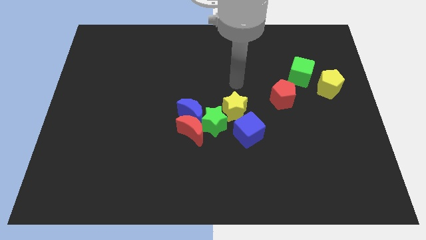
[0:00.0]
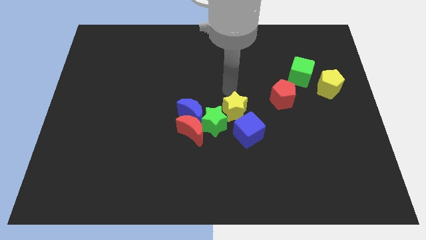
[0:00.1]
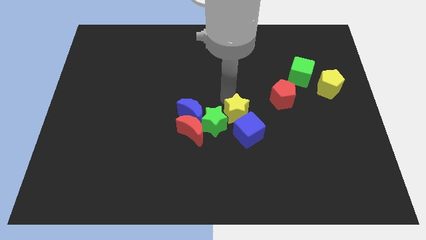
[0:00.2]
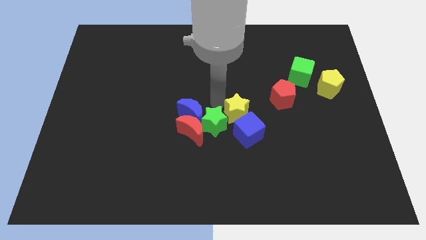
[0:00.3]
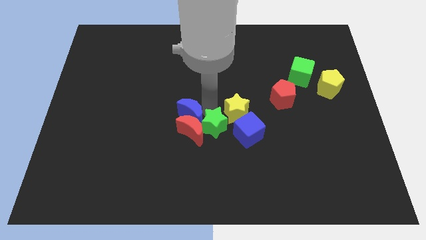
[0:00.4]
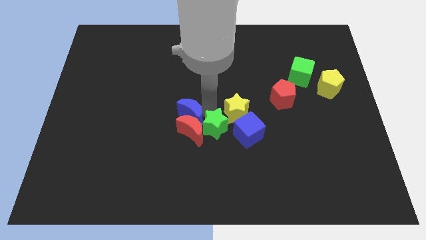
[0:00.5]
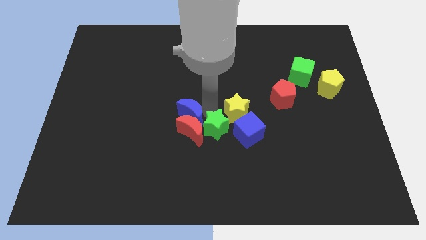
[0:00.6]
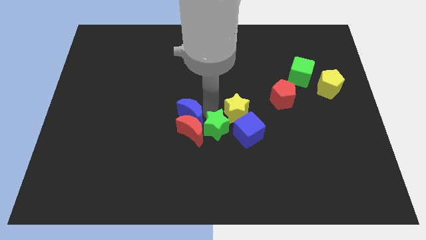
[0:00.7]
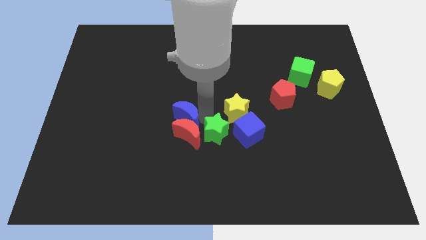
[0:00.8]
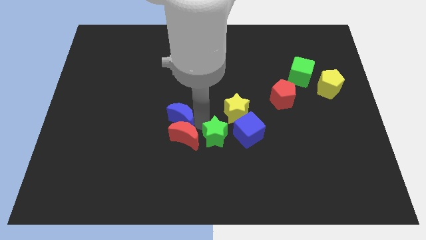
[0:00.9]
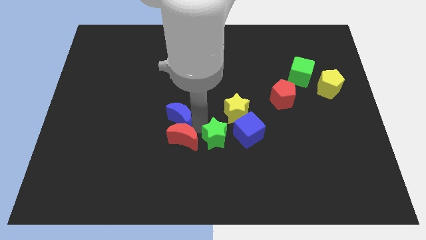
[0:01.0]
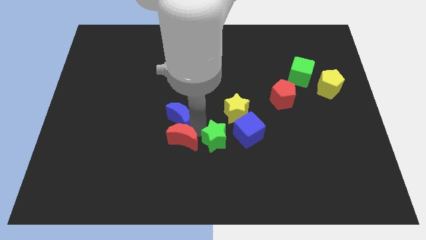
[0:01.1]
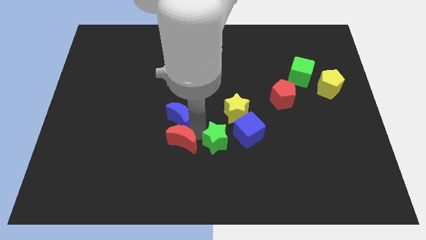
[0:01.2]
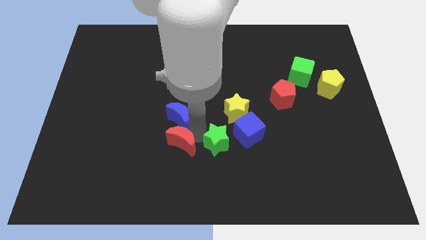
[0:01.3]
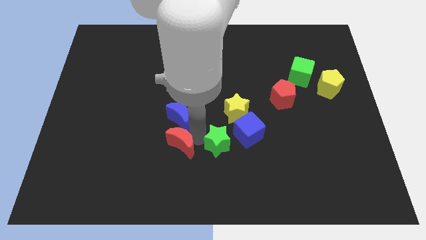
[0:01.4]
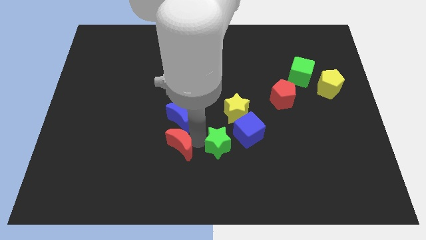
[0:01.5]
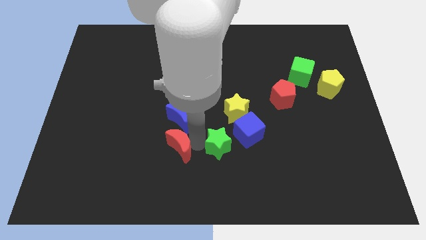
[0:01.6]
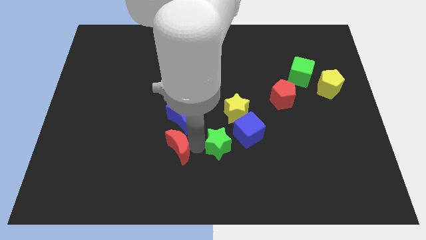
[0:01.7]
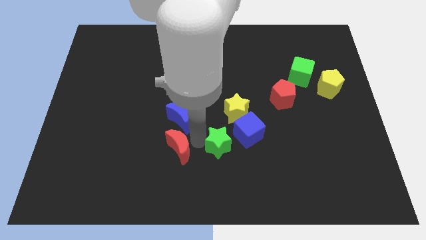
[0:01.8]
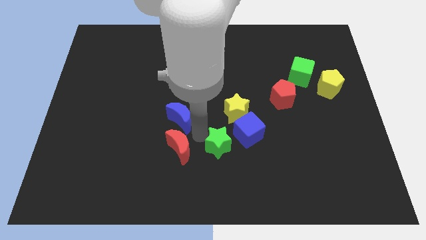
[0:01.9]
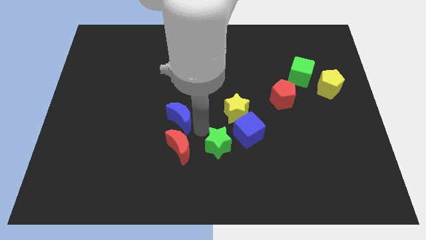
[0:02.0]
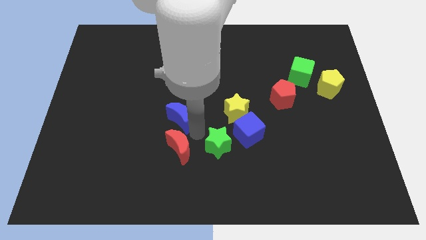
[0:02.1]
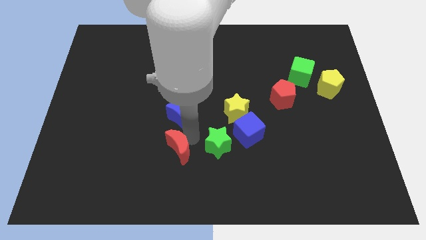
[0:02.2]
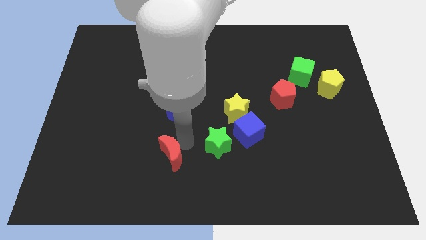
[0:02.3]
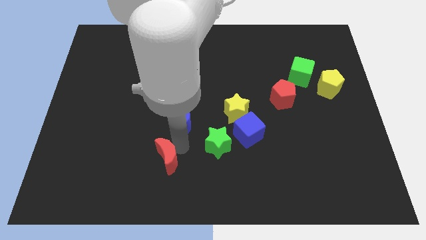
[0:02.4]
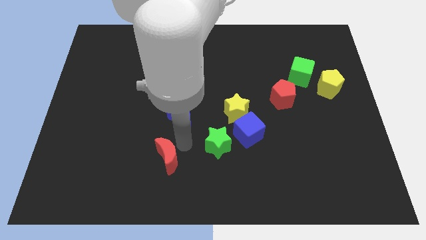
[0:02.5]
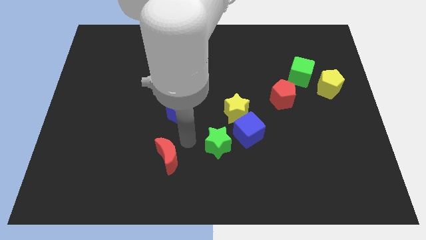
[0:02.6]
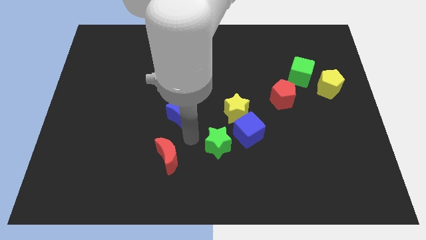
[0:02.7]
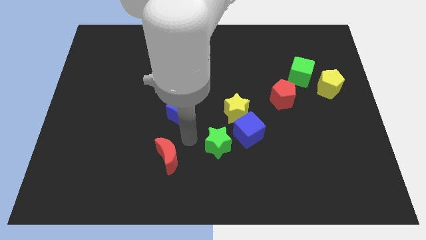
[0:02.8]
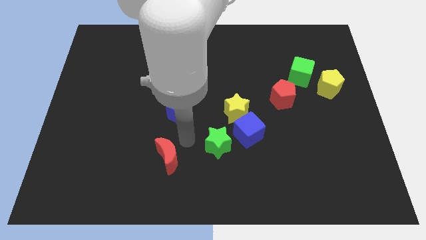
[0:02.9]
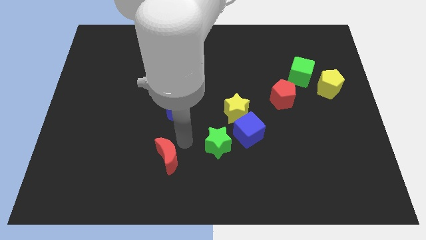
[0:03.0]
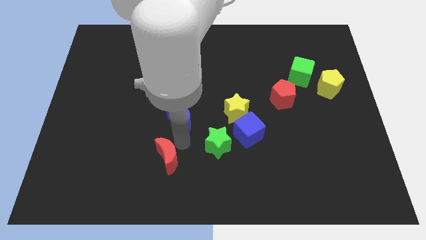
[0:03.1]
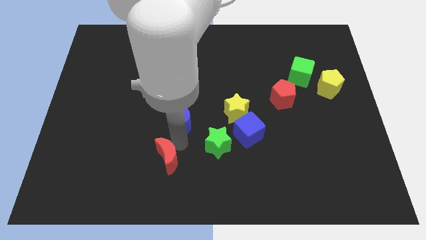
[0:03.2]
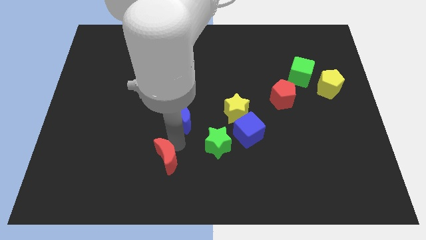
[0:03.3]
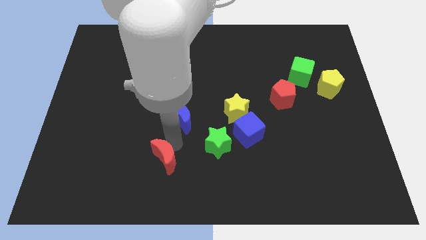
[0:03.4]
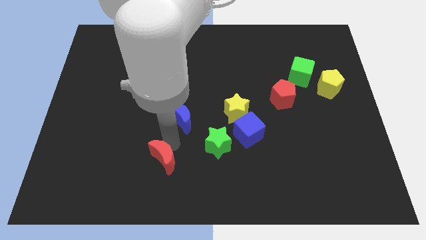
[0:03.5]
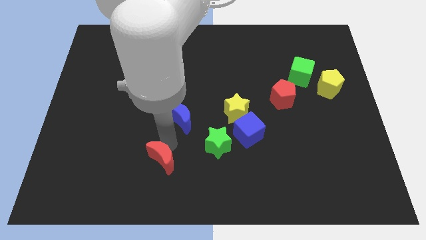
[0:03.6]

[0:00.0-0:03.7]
separate the red moon from the blue moon and green star

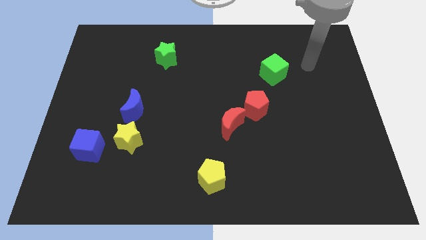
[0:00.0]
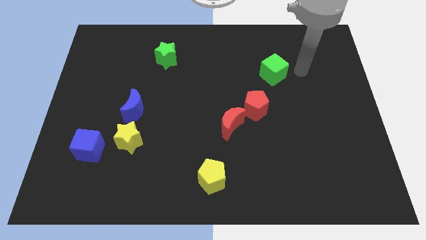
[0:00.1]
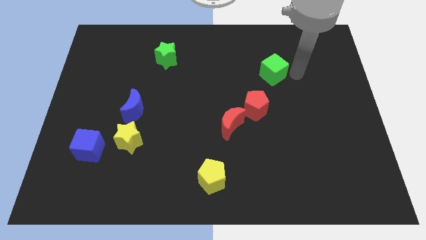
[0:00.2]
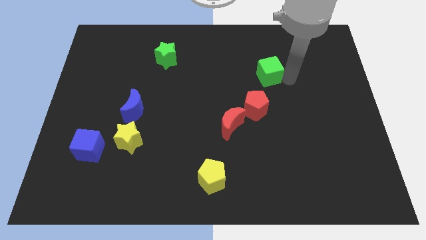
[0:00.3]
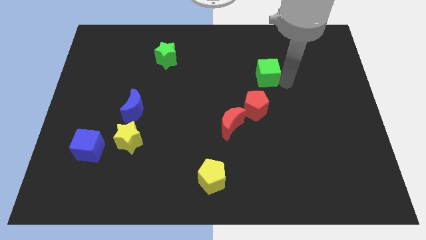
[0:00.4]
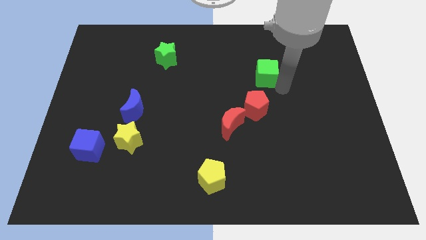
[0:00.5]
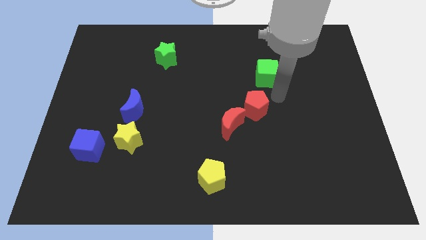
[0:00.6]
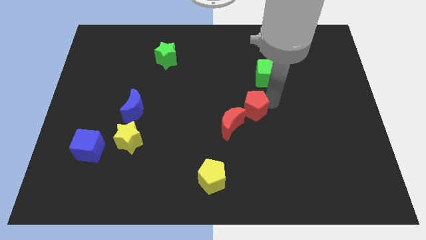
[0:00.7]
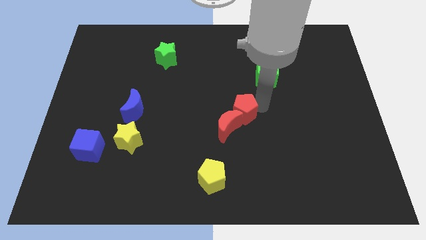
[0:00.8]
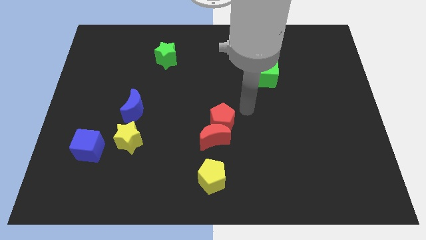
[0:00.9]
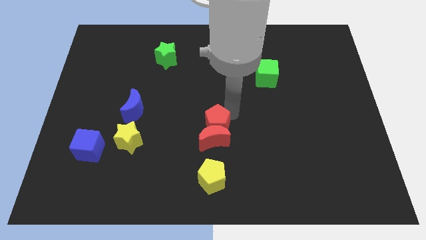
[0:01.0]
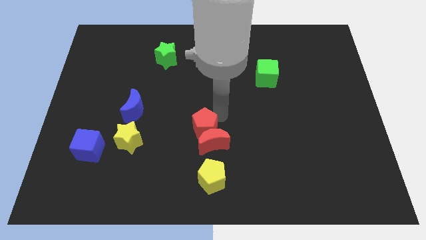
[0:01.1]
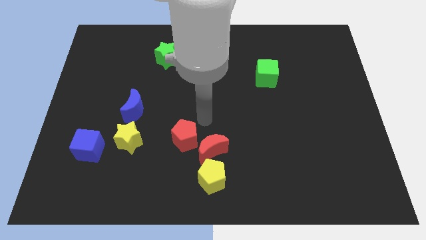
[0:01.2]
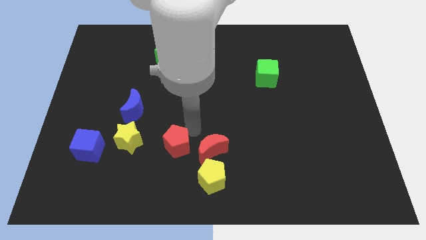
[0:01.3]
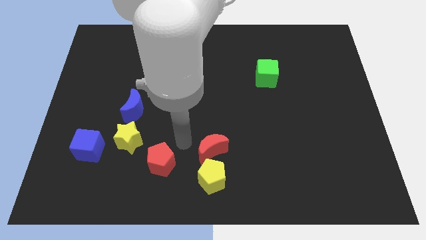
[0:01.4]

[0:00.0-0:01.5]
separate the red moon from the red pentagon

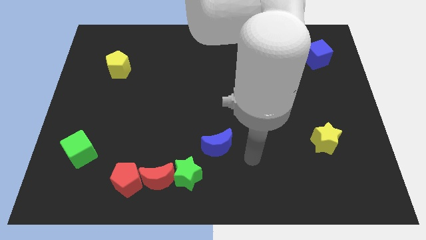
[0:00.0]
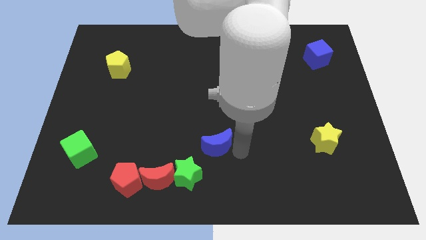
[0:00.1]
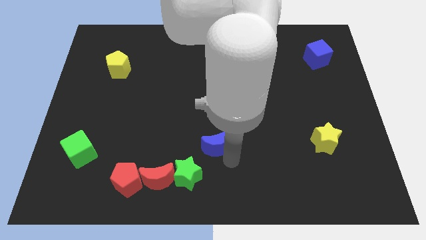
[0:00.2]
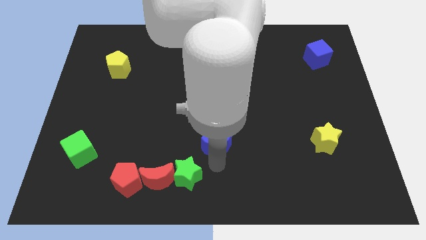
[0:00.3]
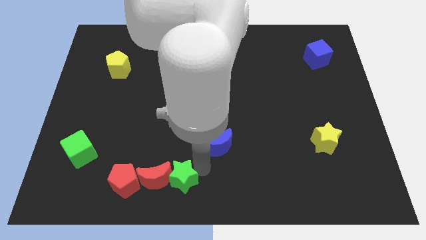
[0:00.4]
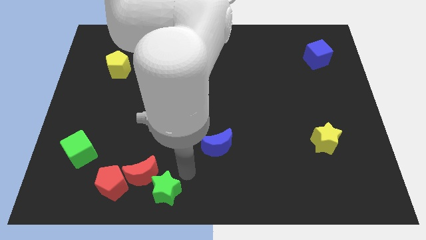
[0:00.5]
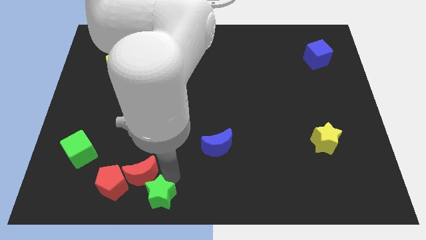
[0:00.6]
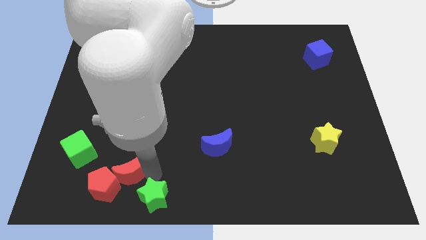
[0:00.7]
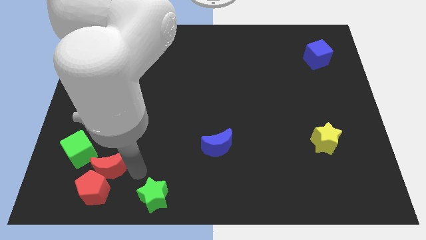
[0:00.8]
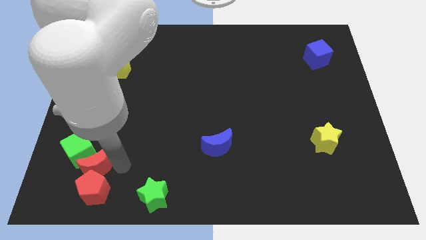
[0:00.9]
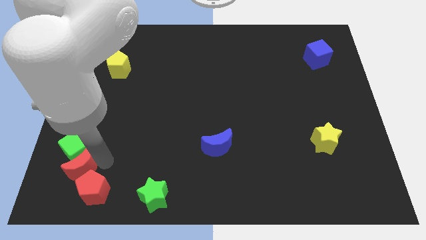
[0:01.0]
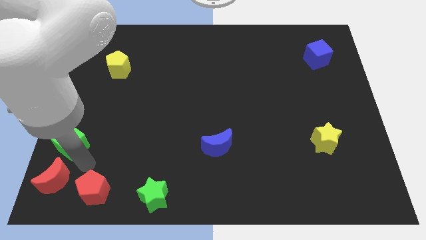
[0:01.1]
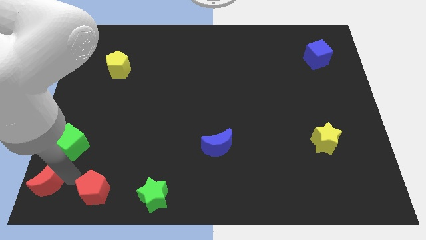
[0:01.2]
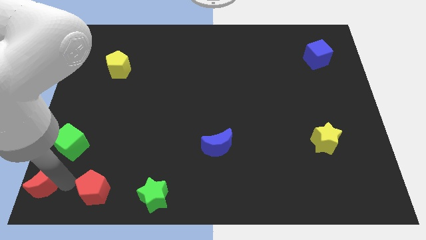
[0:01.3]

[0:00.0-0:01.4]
pull the red pentagon apart from the red moon

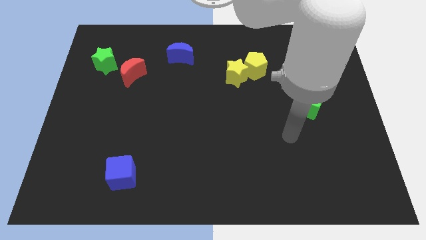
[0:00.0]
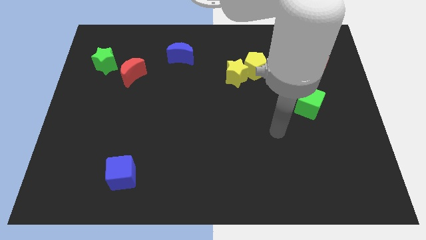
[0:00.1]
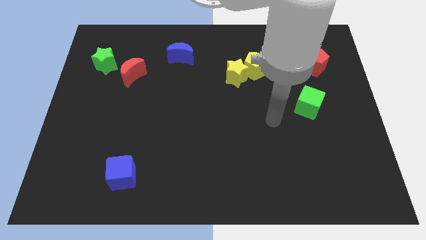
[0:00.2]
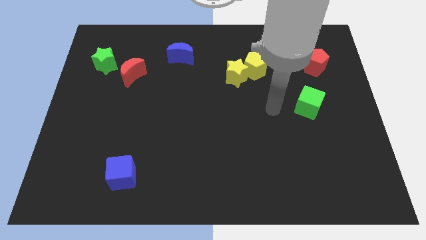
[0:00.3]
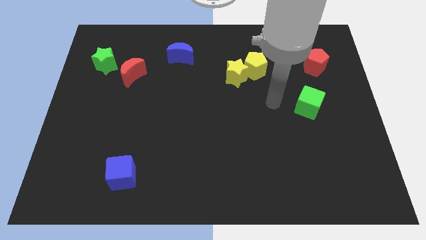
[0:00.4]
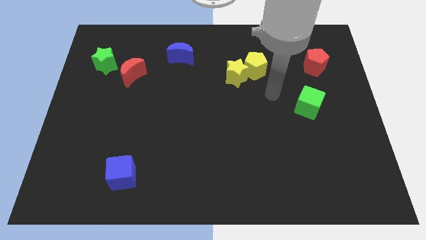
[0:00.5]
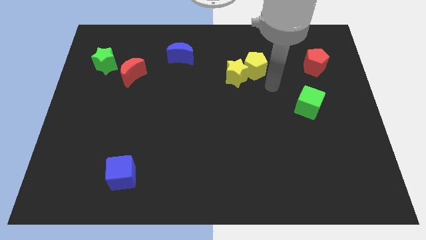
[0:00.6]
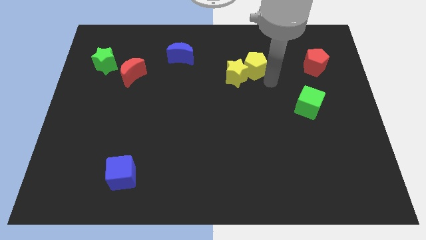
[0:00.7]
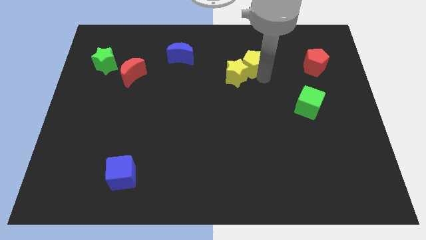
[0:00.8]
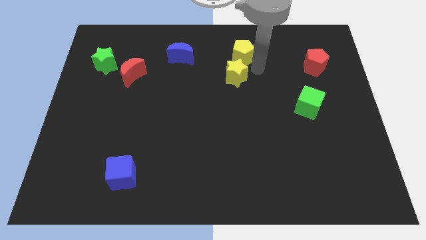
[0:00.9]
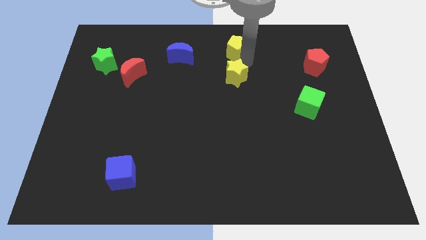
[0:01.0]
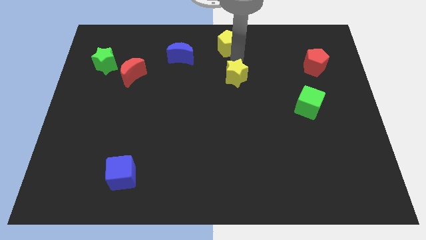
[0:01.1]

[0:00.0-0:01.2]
pull the yellow star apart from the yellow pentagon

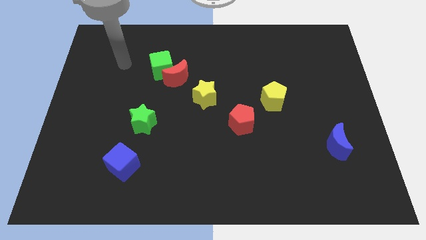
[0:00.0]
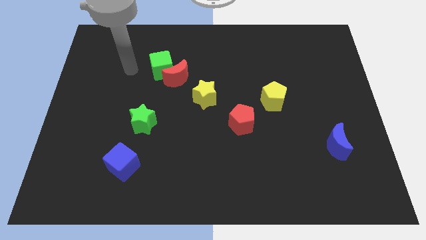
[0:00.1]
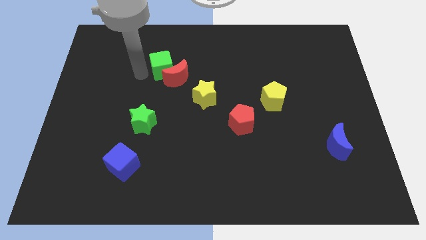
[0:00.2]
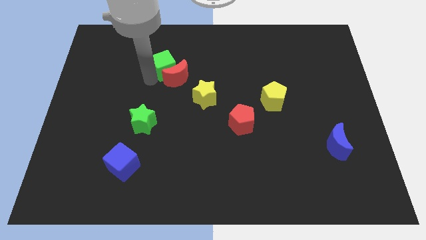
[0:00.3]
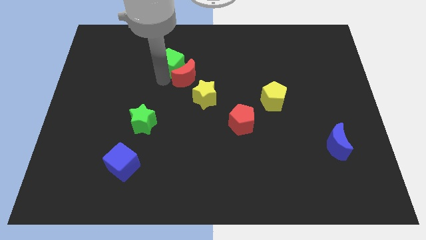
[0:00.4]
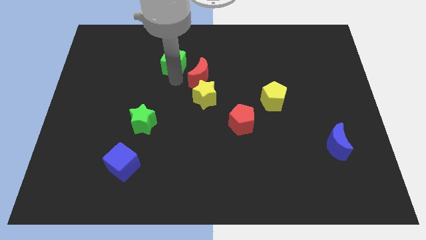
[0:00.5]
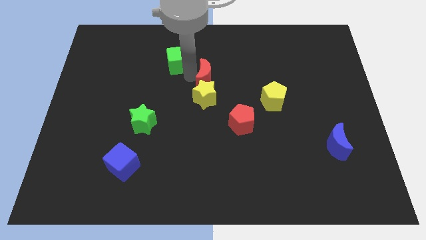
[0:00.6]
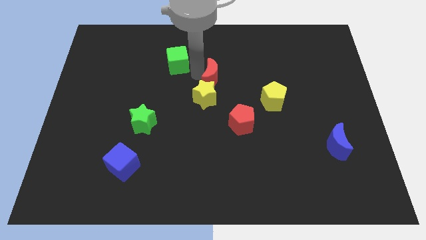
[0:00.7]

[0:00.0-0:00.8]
separate the green cube from the red moon

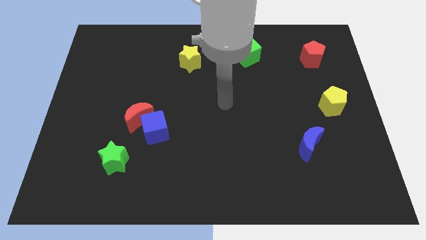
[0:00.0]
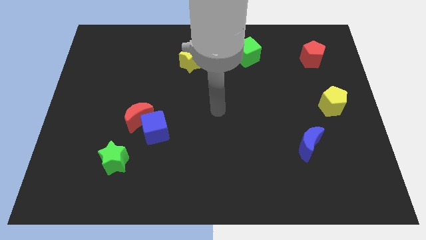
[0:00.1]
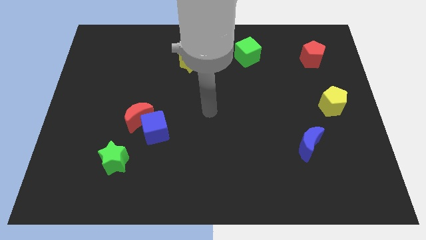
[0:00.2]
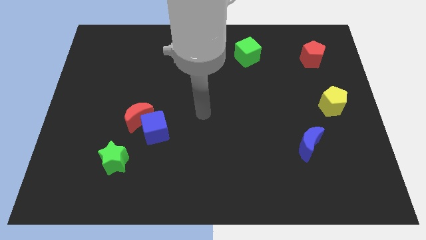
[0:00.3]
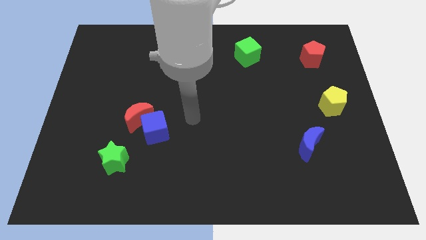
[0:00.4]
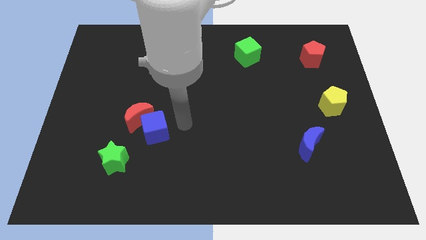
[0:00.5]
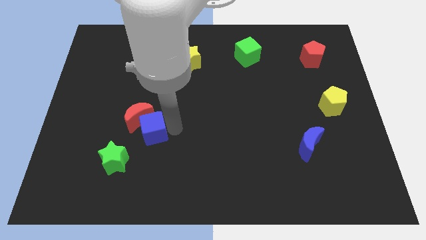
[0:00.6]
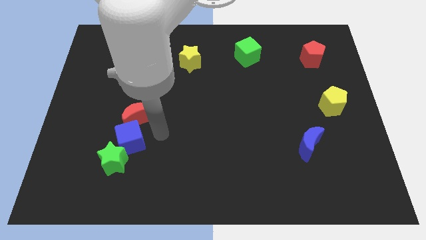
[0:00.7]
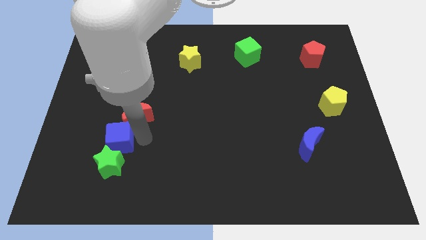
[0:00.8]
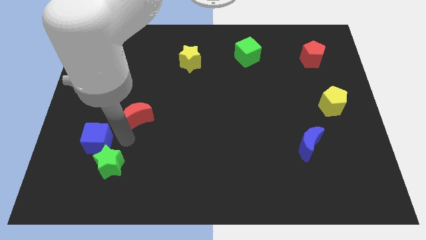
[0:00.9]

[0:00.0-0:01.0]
move the red moon away from the blue cube
